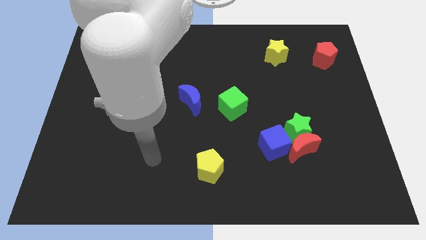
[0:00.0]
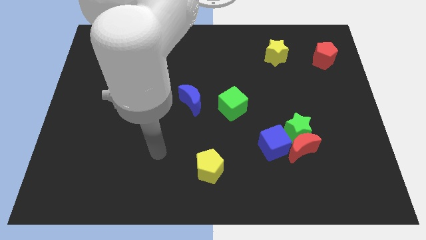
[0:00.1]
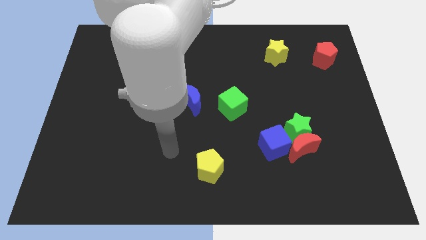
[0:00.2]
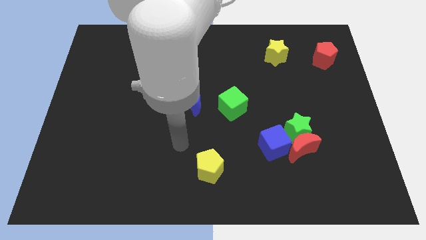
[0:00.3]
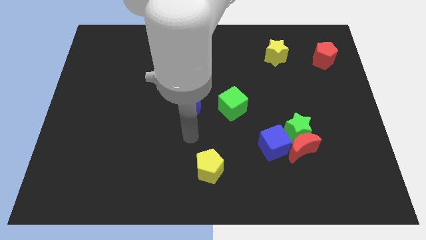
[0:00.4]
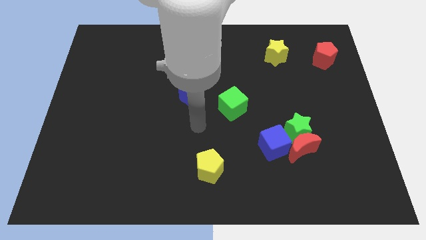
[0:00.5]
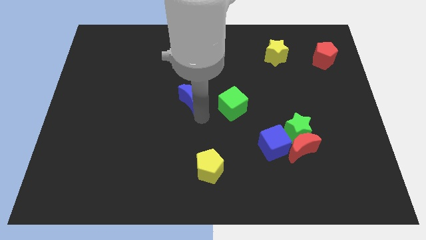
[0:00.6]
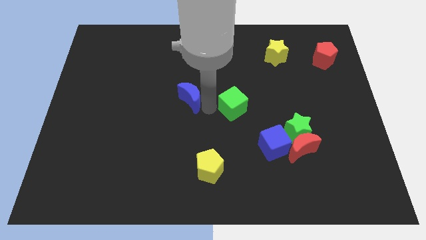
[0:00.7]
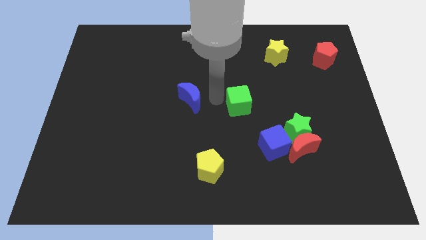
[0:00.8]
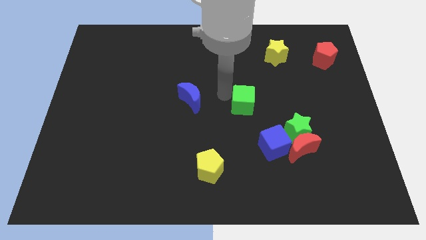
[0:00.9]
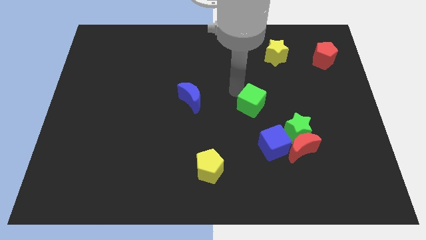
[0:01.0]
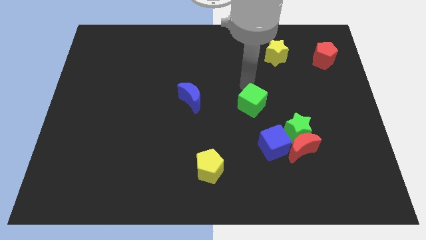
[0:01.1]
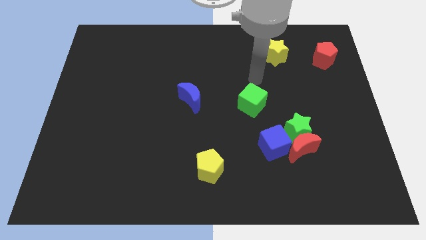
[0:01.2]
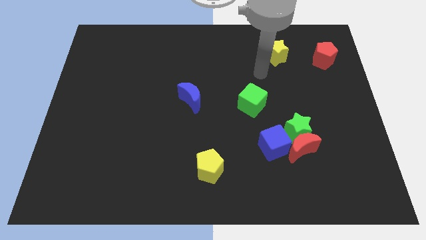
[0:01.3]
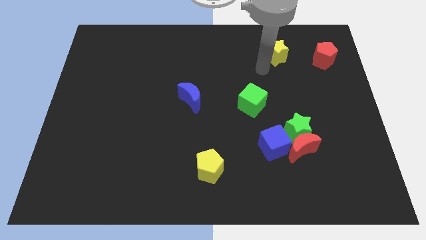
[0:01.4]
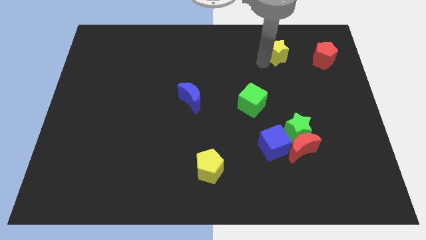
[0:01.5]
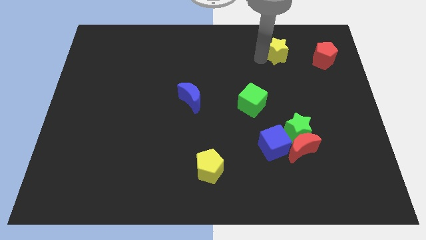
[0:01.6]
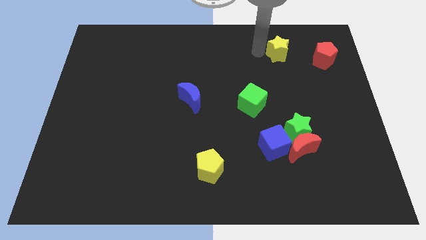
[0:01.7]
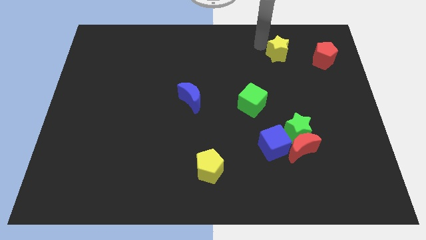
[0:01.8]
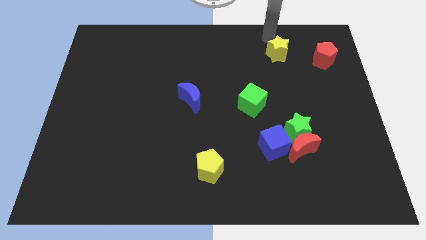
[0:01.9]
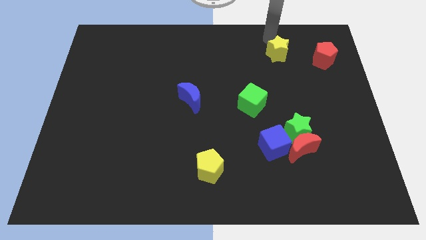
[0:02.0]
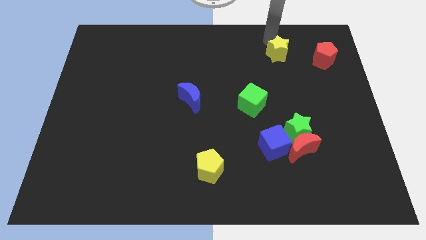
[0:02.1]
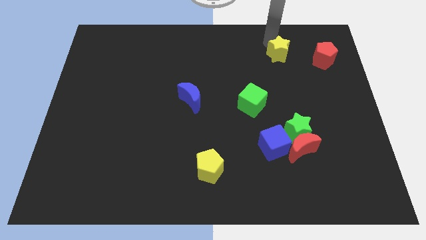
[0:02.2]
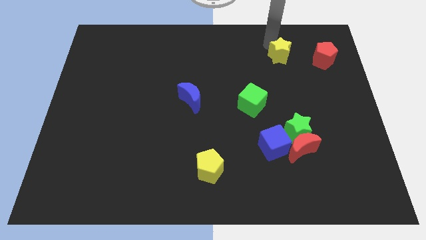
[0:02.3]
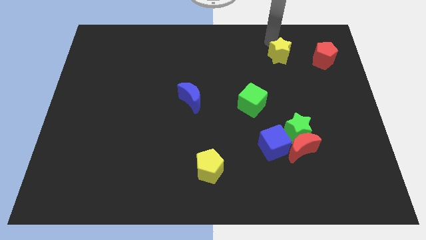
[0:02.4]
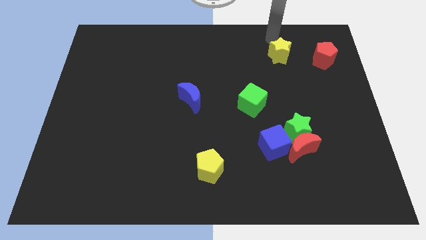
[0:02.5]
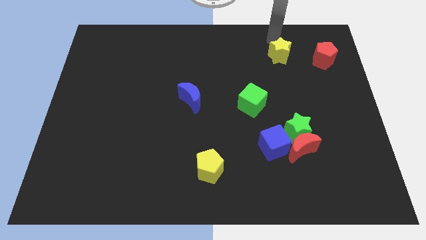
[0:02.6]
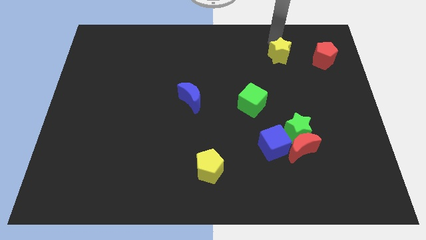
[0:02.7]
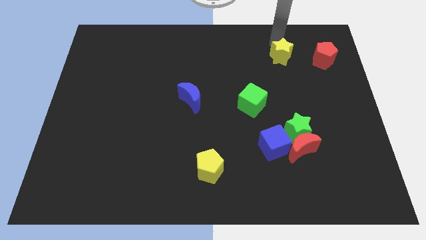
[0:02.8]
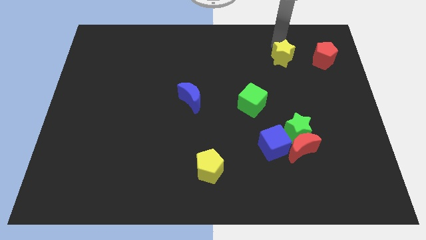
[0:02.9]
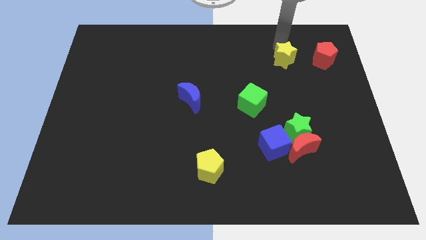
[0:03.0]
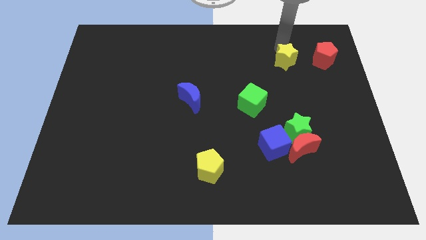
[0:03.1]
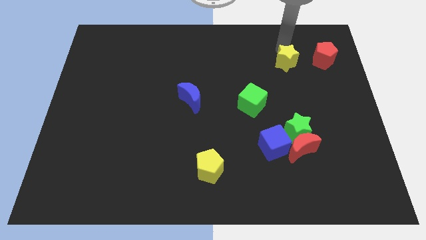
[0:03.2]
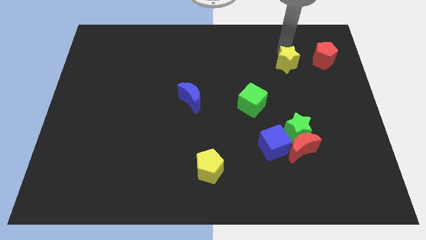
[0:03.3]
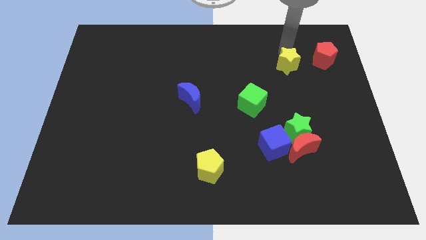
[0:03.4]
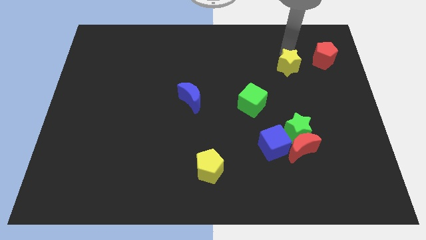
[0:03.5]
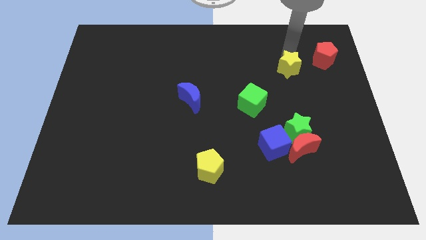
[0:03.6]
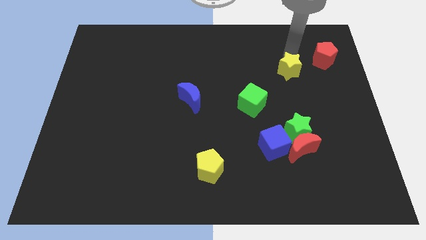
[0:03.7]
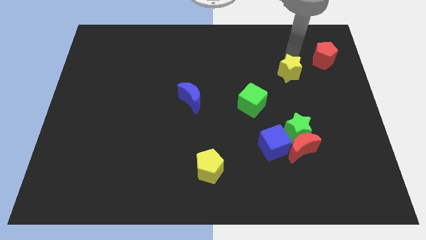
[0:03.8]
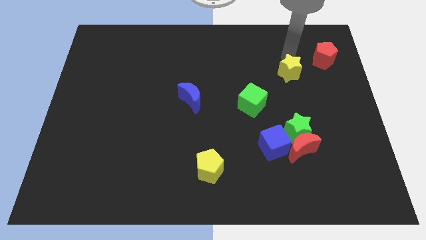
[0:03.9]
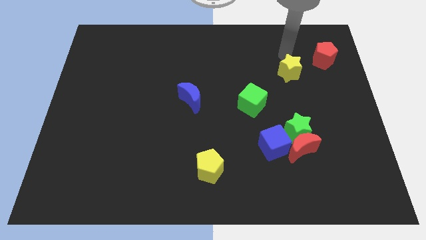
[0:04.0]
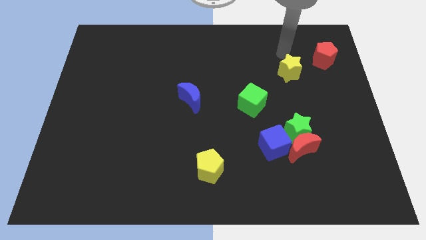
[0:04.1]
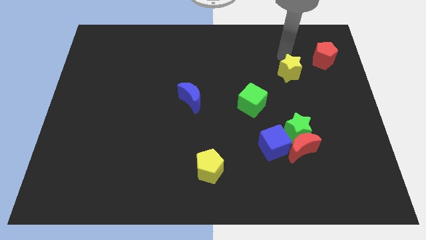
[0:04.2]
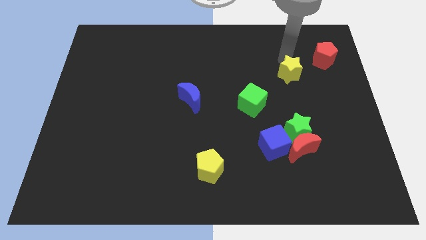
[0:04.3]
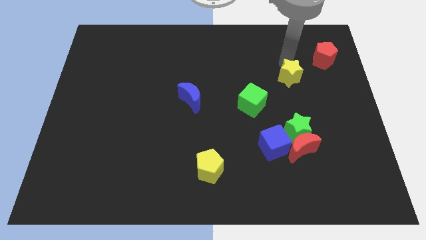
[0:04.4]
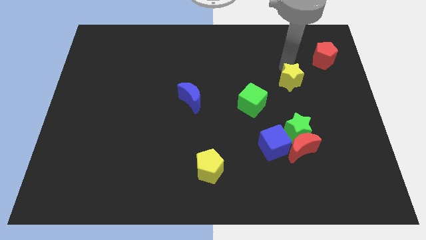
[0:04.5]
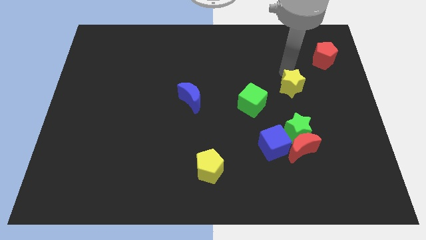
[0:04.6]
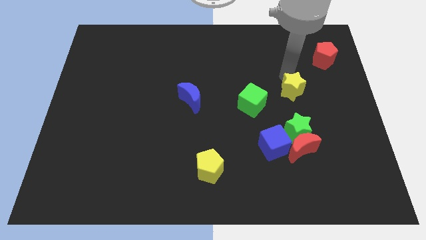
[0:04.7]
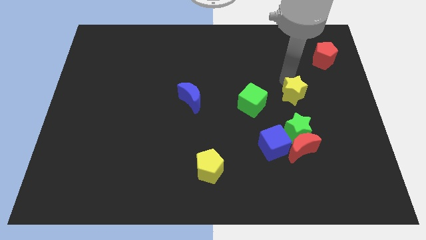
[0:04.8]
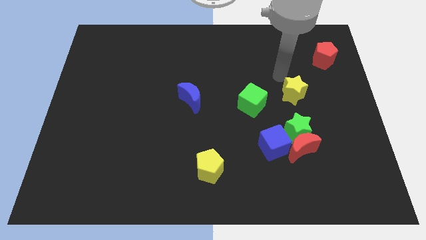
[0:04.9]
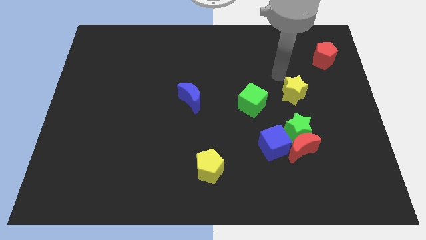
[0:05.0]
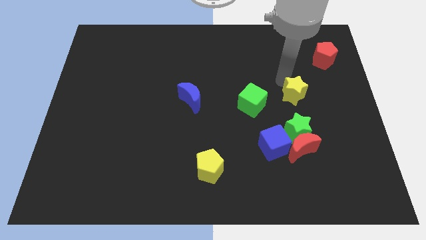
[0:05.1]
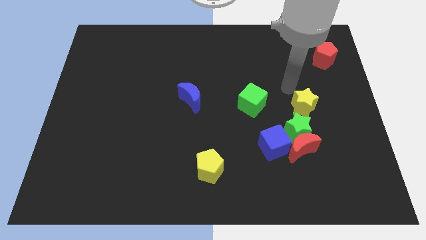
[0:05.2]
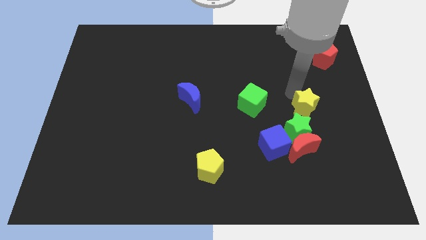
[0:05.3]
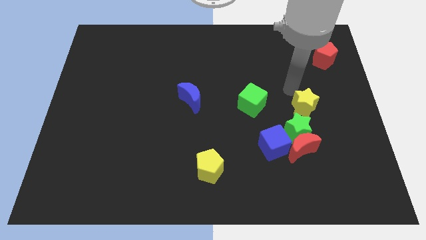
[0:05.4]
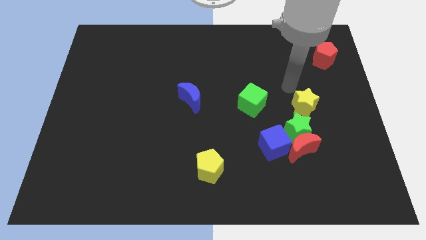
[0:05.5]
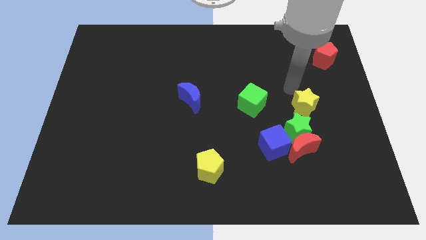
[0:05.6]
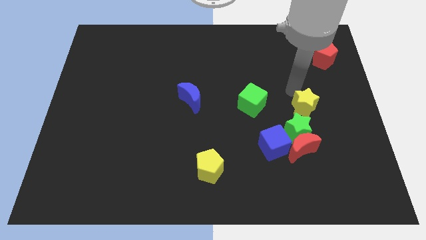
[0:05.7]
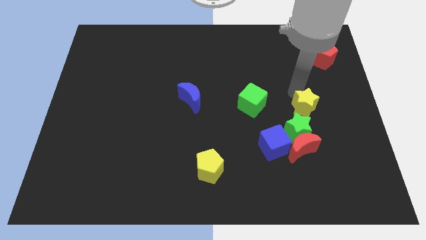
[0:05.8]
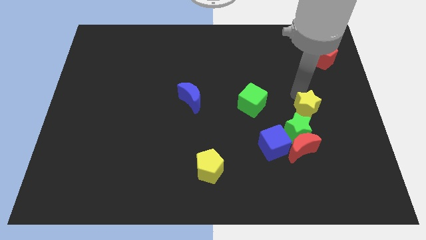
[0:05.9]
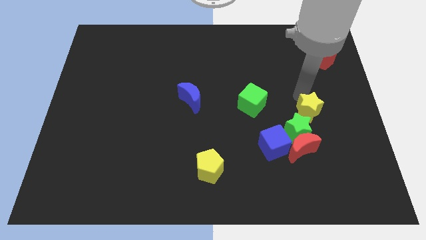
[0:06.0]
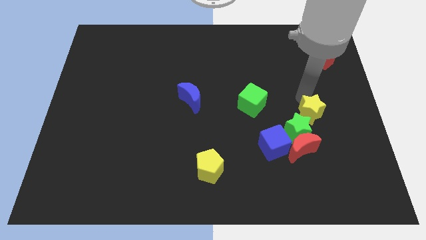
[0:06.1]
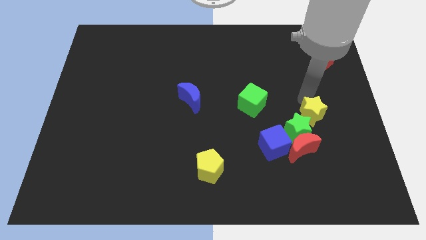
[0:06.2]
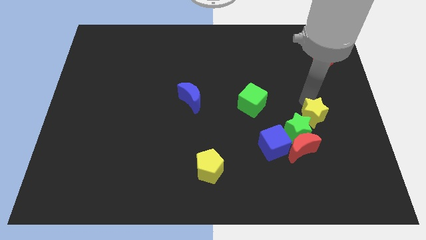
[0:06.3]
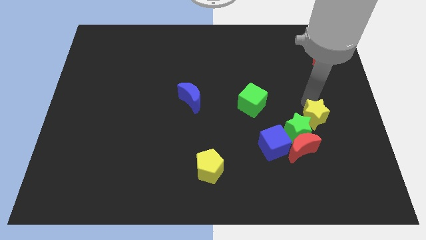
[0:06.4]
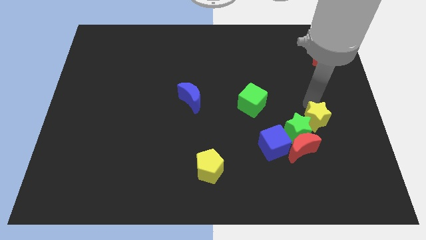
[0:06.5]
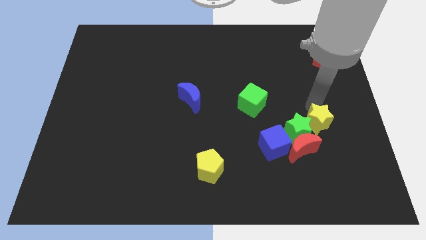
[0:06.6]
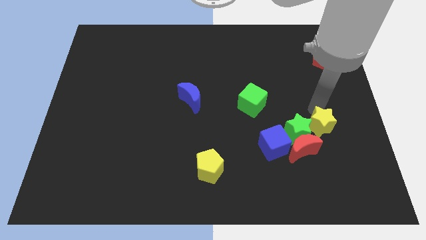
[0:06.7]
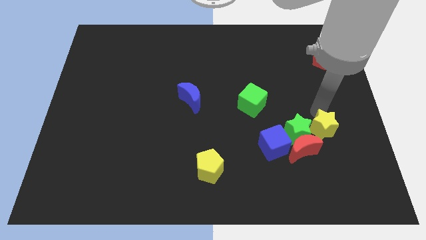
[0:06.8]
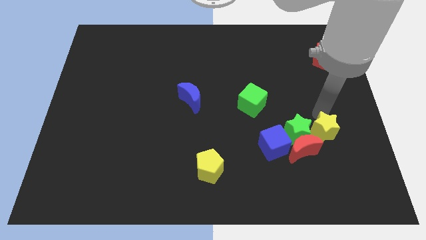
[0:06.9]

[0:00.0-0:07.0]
move the yellow star to the bottom right of the green star

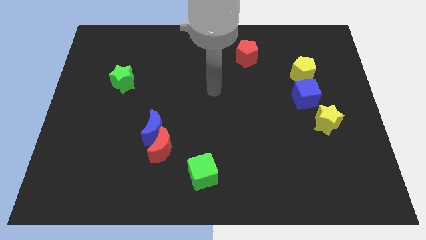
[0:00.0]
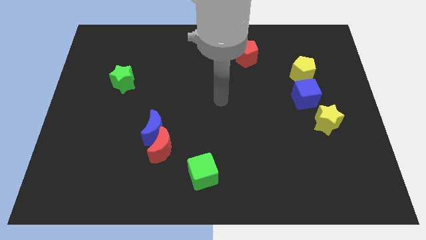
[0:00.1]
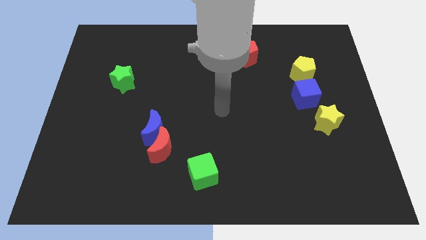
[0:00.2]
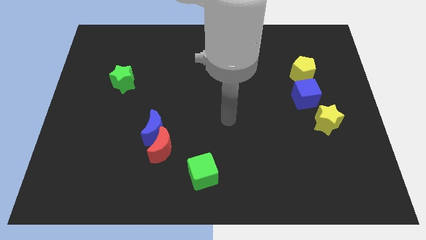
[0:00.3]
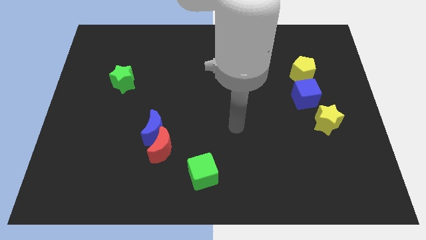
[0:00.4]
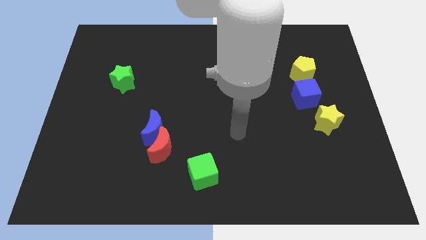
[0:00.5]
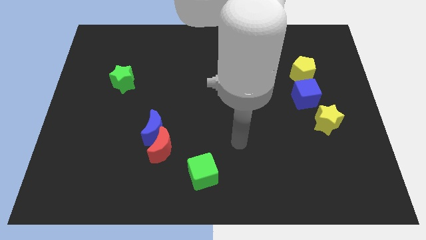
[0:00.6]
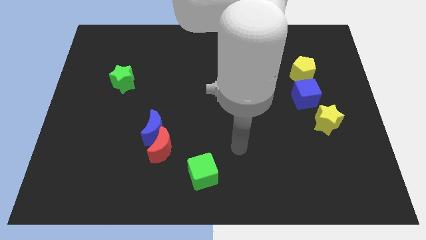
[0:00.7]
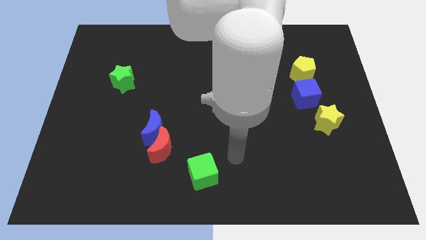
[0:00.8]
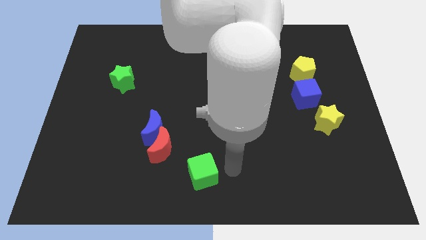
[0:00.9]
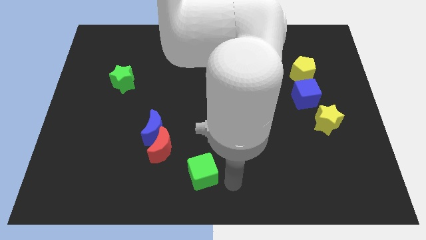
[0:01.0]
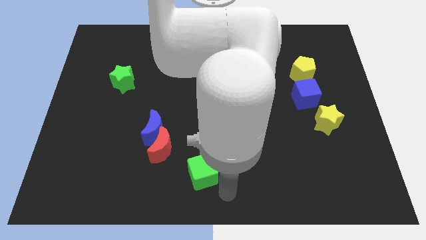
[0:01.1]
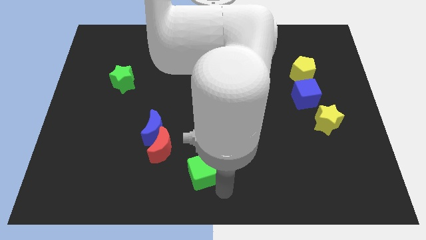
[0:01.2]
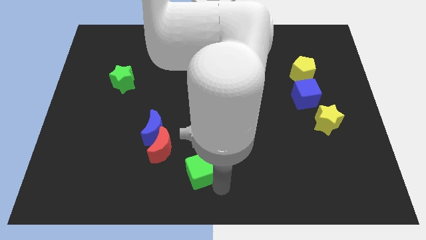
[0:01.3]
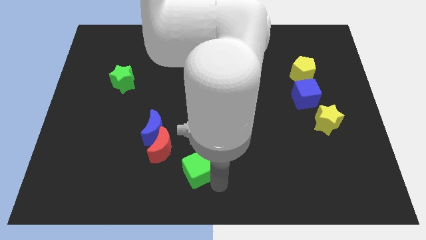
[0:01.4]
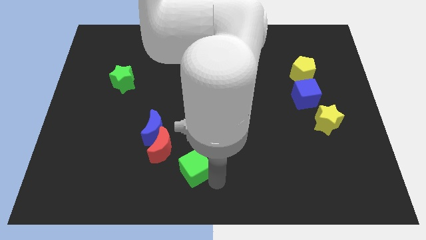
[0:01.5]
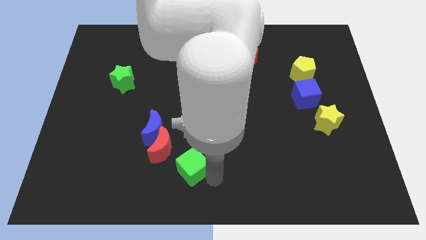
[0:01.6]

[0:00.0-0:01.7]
slide the green cube diagonally down and to the right of the blue moon
